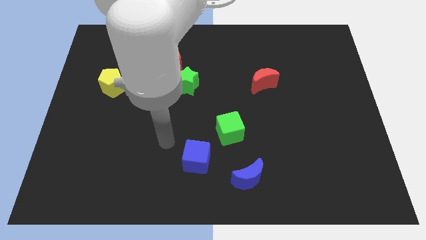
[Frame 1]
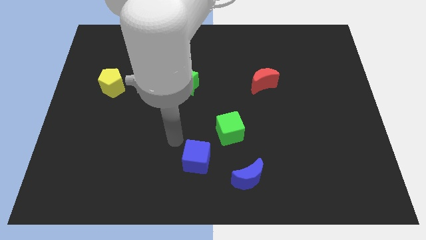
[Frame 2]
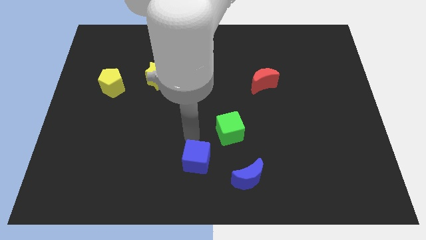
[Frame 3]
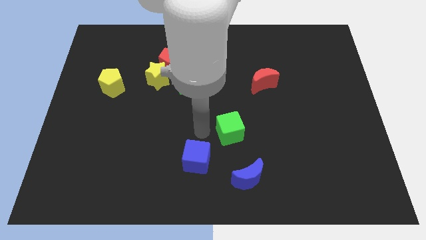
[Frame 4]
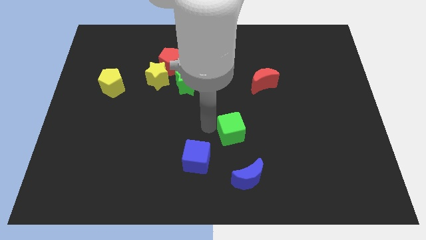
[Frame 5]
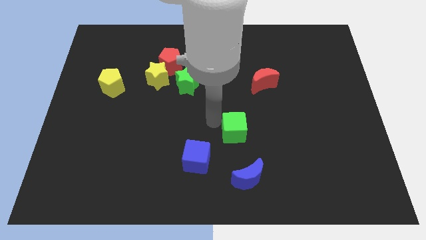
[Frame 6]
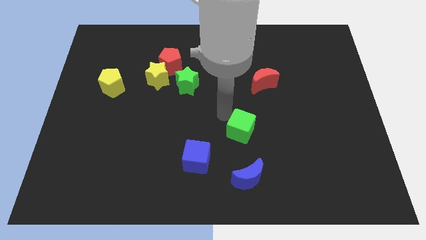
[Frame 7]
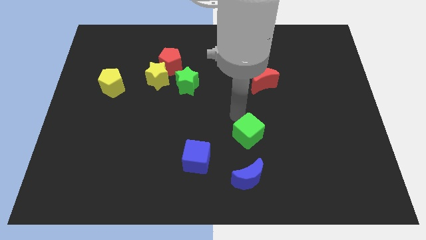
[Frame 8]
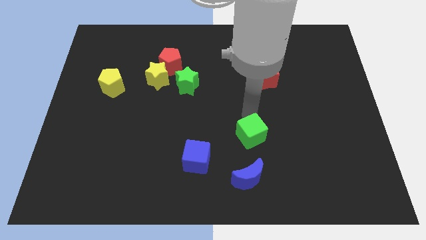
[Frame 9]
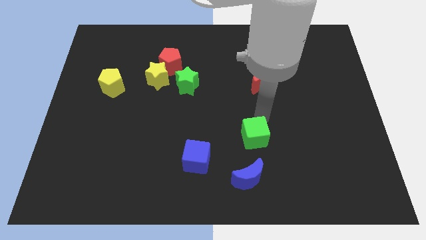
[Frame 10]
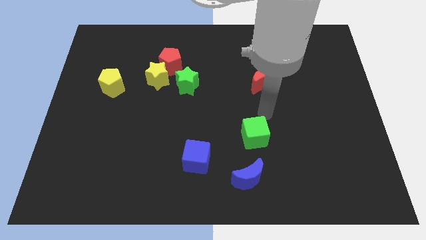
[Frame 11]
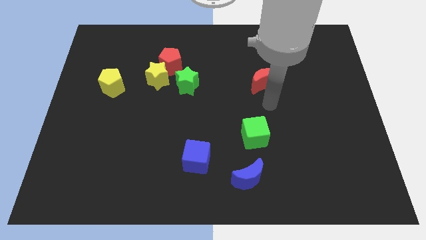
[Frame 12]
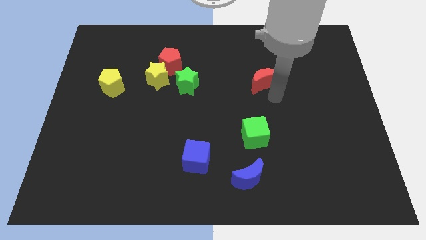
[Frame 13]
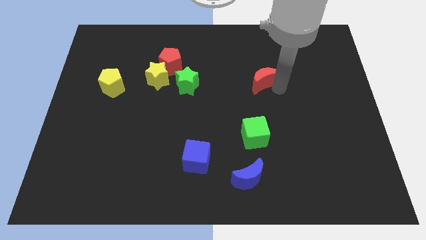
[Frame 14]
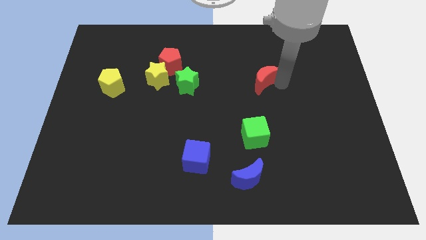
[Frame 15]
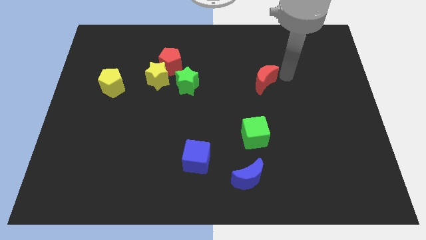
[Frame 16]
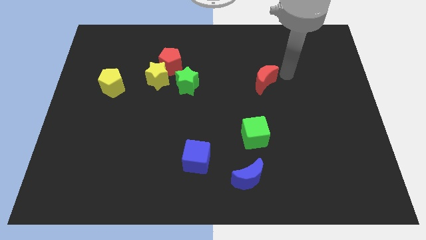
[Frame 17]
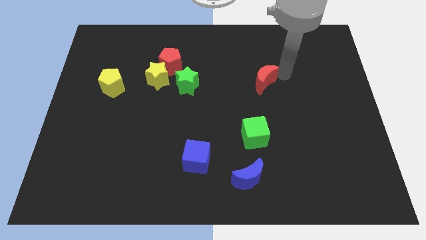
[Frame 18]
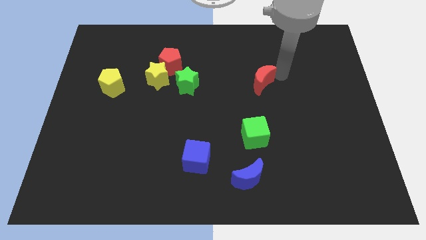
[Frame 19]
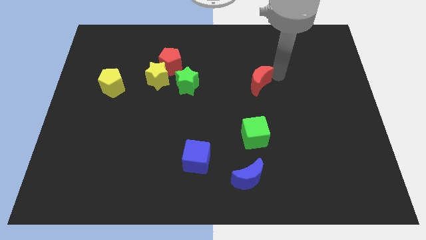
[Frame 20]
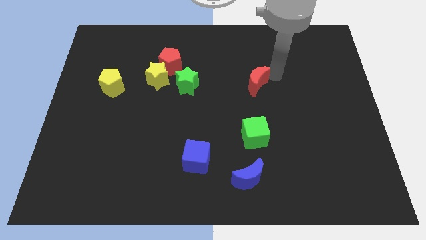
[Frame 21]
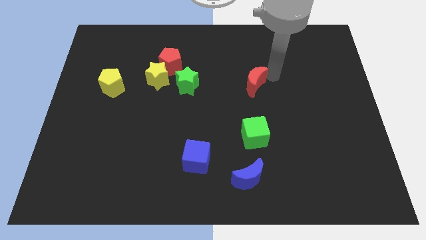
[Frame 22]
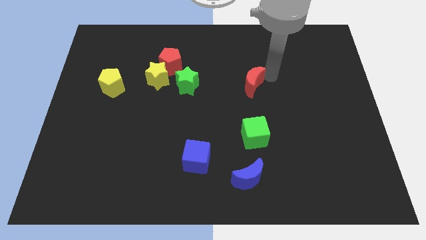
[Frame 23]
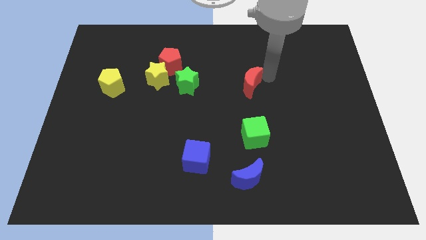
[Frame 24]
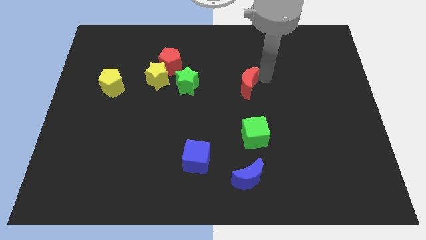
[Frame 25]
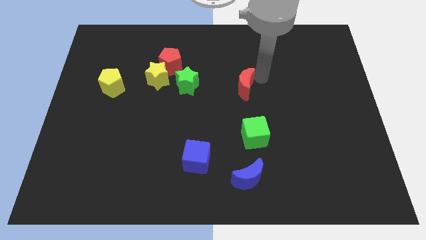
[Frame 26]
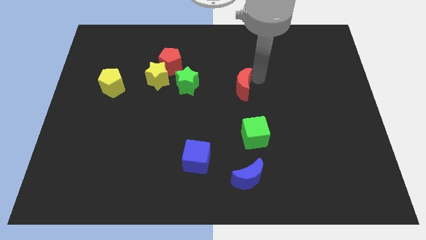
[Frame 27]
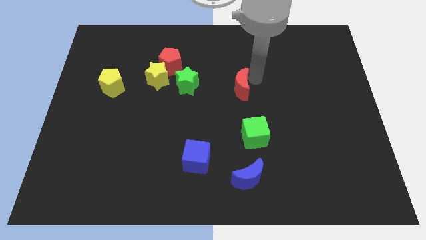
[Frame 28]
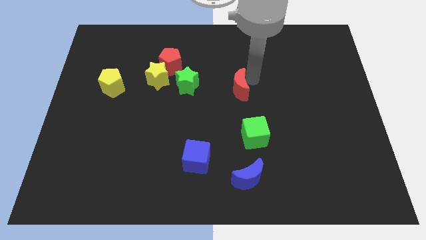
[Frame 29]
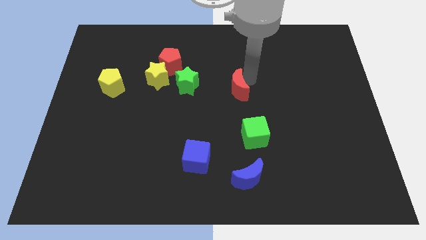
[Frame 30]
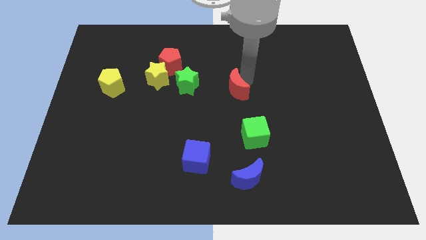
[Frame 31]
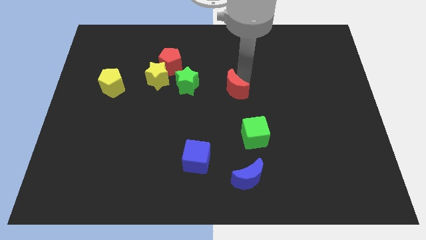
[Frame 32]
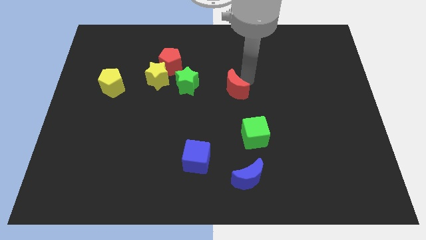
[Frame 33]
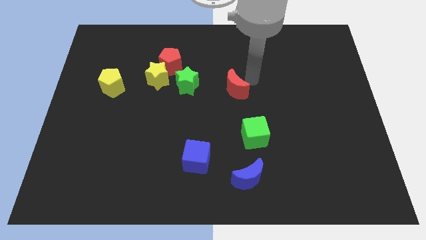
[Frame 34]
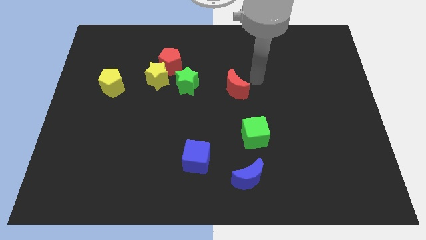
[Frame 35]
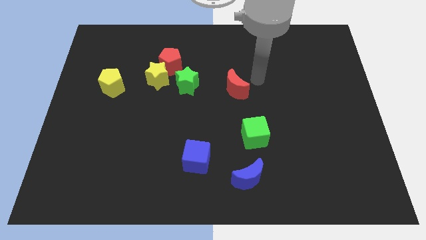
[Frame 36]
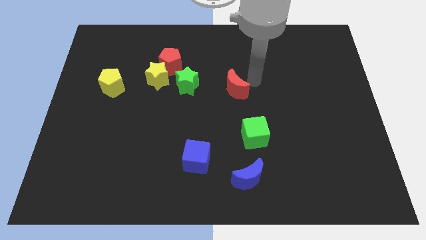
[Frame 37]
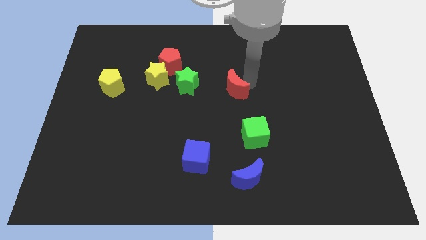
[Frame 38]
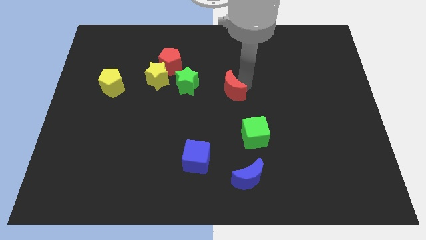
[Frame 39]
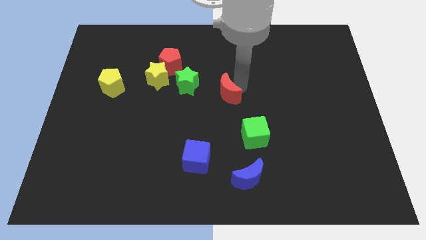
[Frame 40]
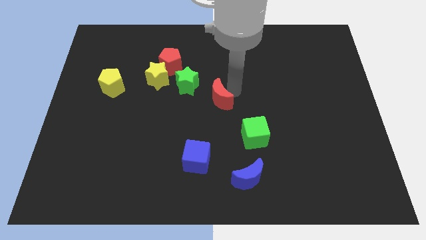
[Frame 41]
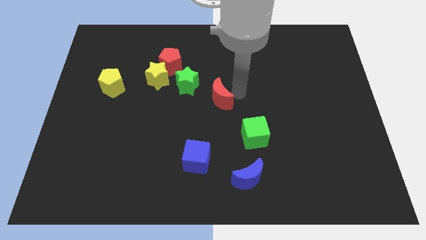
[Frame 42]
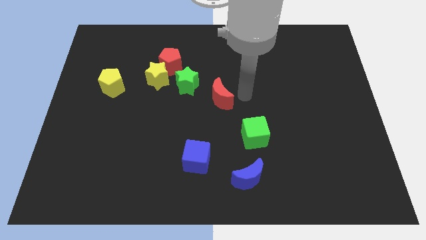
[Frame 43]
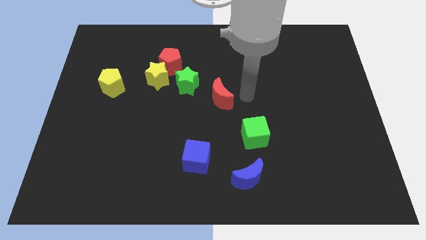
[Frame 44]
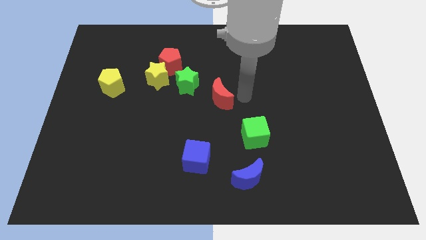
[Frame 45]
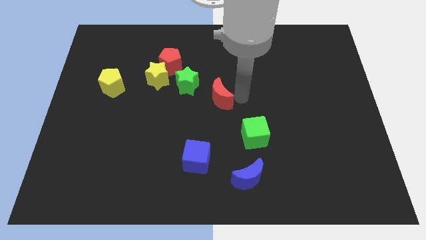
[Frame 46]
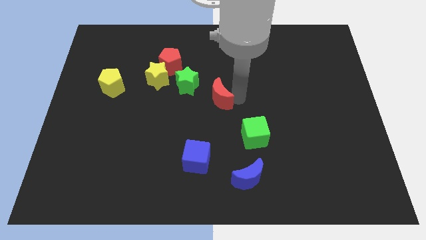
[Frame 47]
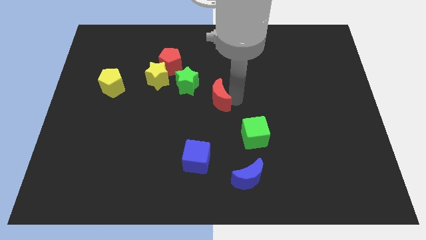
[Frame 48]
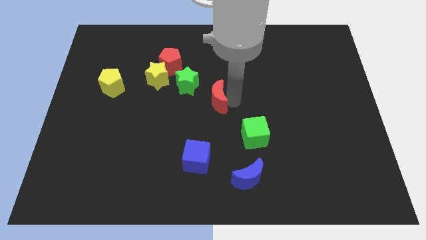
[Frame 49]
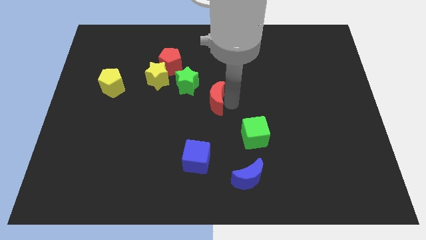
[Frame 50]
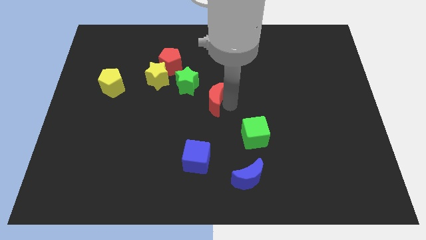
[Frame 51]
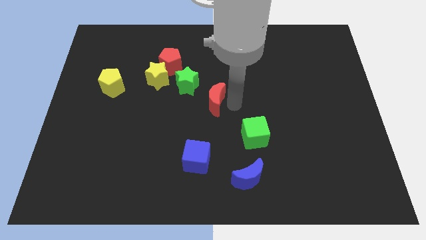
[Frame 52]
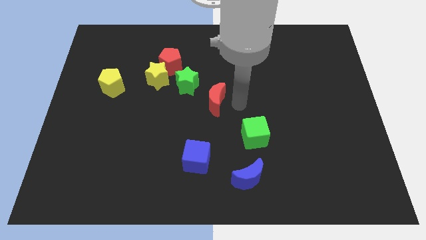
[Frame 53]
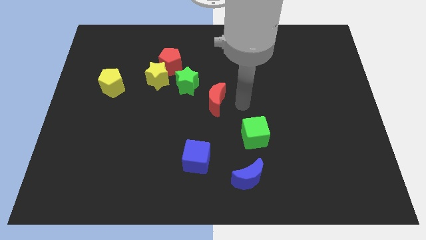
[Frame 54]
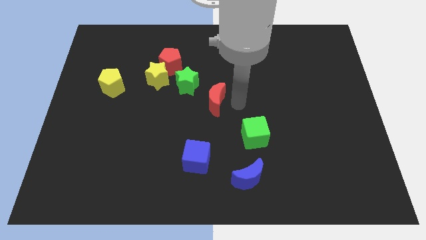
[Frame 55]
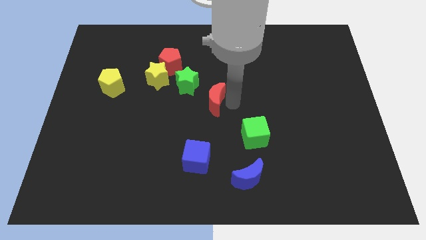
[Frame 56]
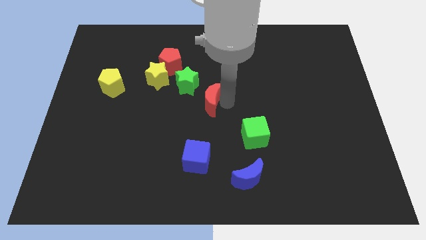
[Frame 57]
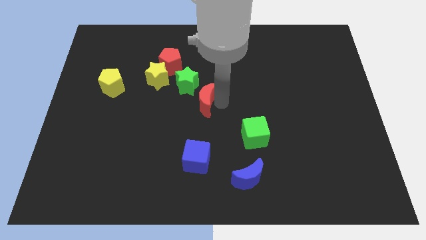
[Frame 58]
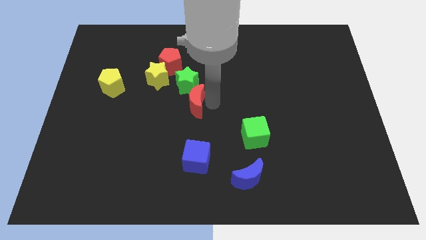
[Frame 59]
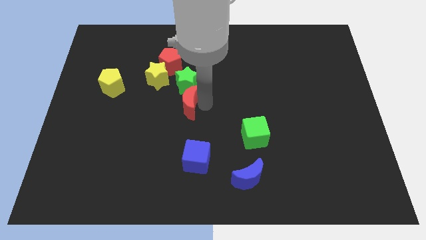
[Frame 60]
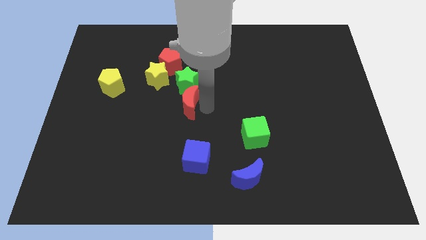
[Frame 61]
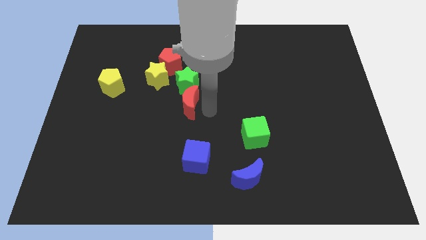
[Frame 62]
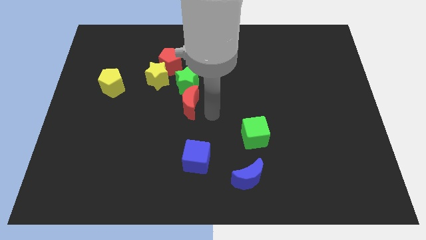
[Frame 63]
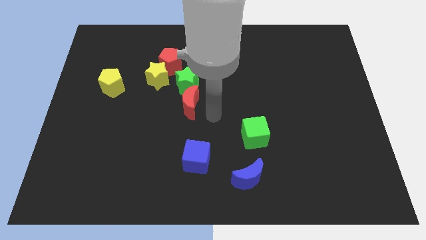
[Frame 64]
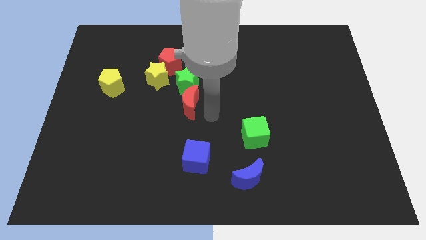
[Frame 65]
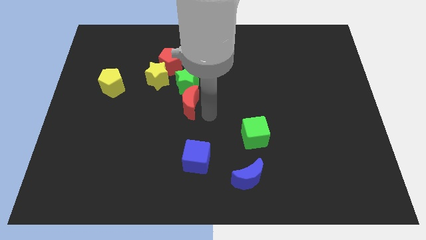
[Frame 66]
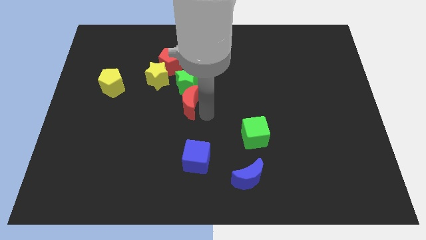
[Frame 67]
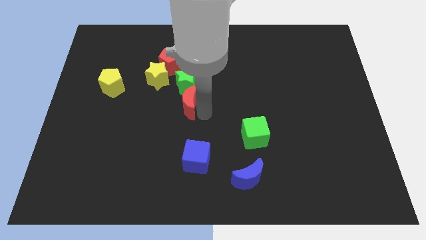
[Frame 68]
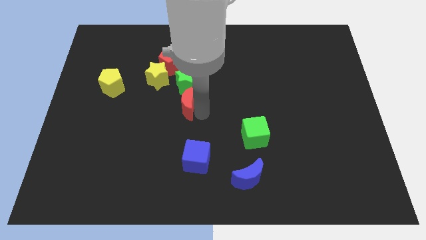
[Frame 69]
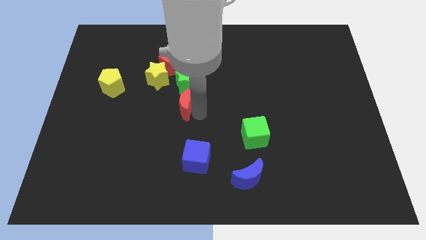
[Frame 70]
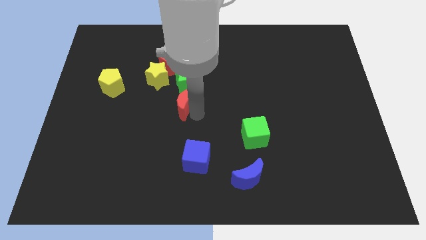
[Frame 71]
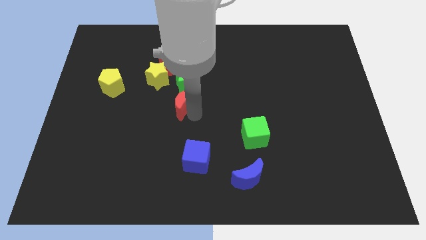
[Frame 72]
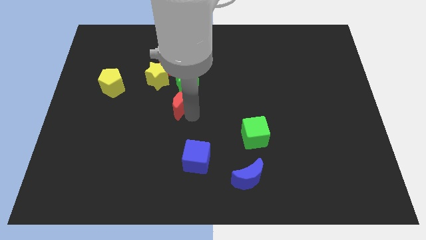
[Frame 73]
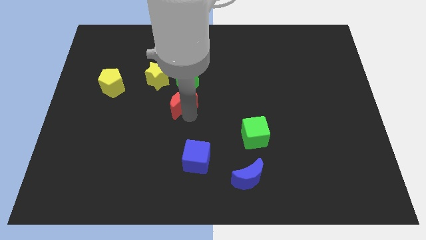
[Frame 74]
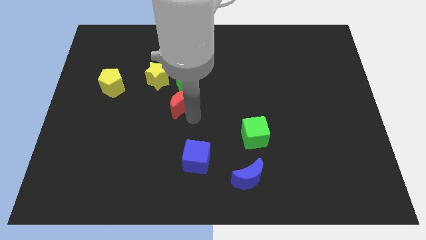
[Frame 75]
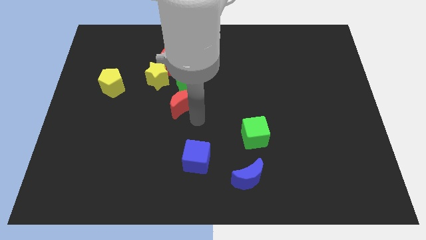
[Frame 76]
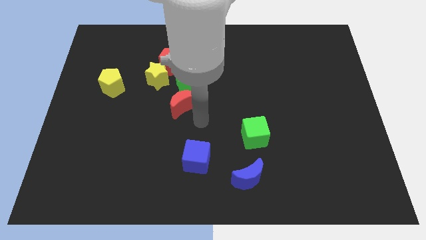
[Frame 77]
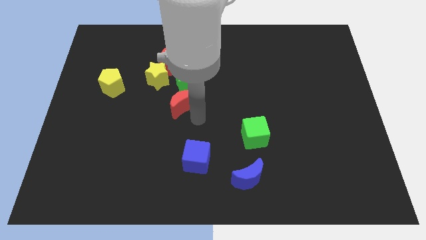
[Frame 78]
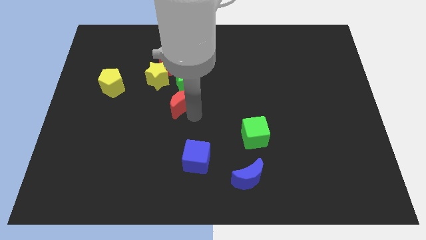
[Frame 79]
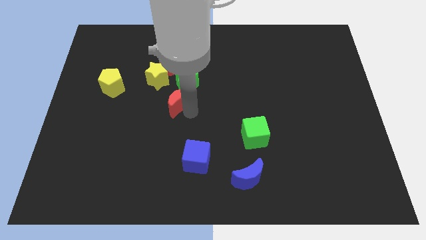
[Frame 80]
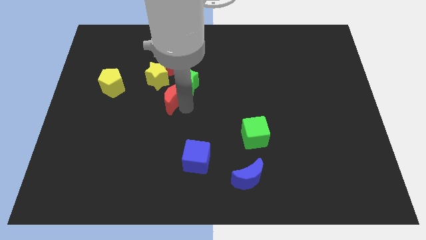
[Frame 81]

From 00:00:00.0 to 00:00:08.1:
slide the red moon left
